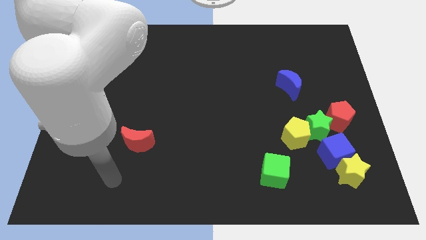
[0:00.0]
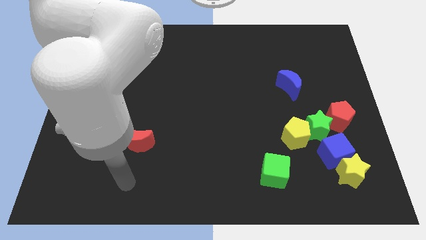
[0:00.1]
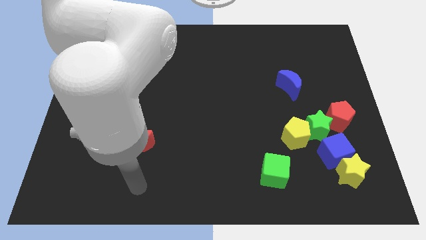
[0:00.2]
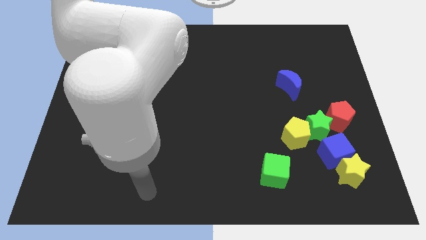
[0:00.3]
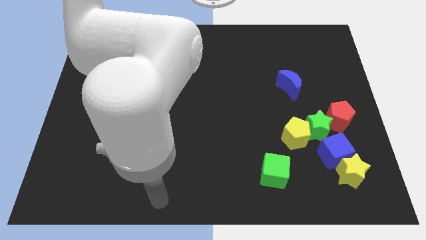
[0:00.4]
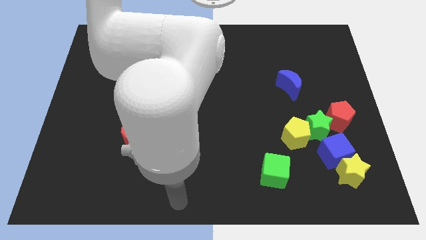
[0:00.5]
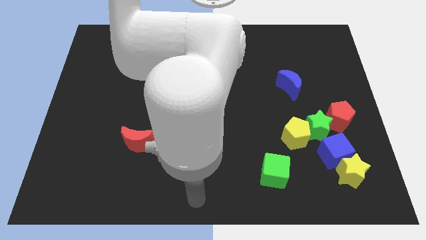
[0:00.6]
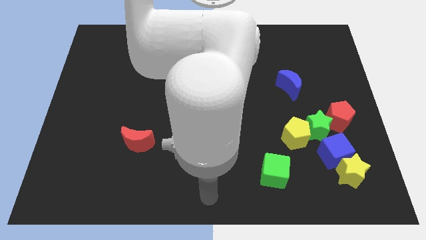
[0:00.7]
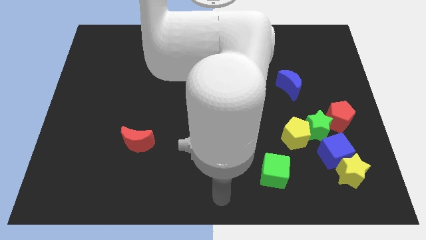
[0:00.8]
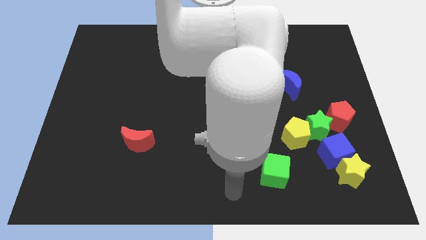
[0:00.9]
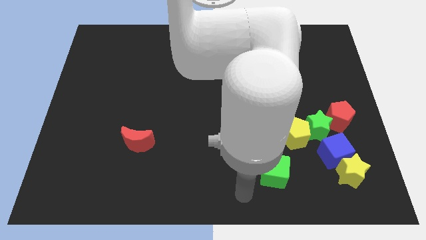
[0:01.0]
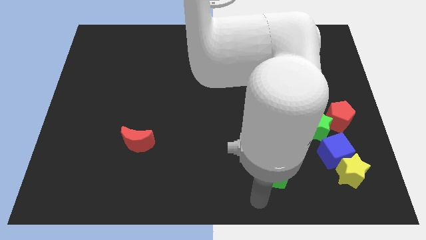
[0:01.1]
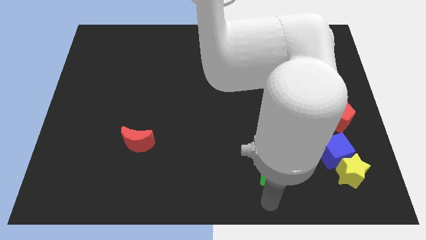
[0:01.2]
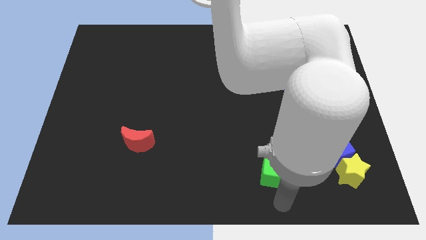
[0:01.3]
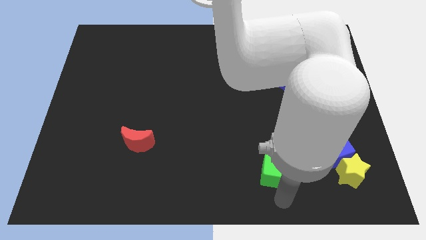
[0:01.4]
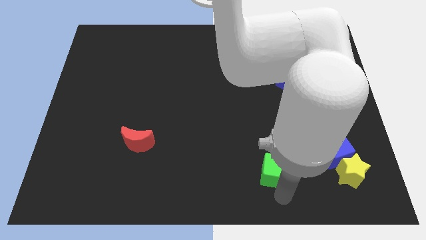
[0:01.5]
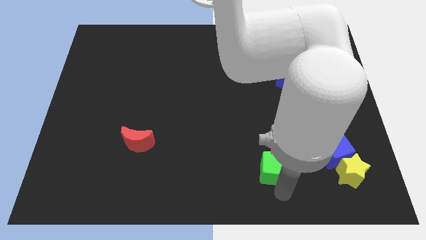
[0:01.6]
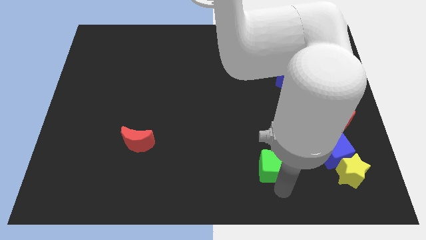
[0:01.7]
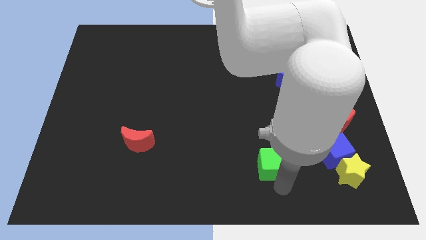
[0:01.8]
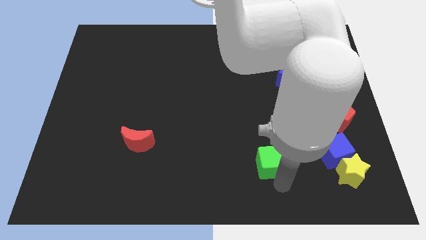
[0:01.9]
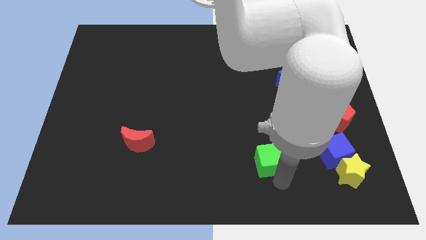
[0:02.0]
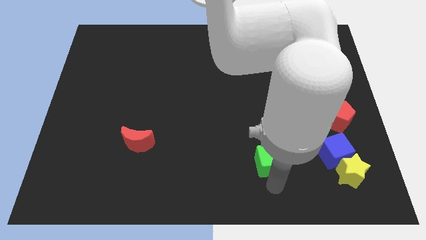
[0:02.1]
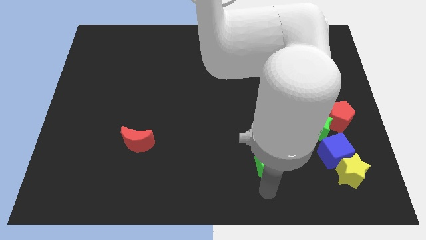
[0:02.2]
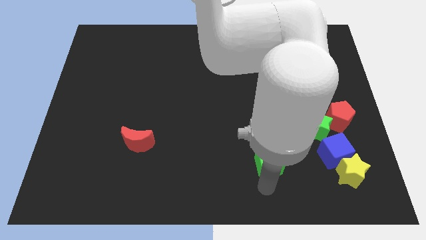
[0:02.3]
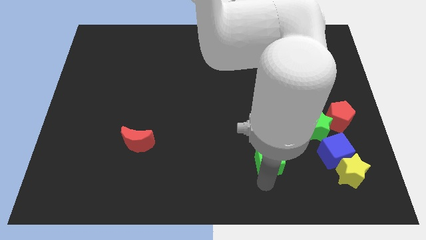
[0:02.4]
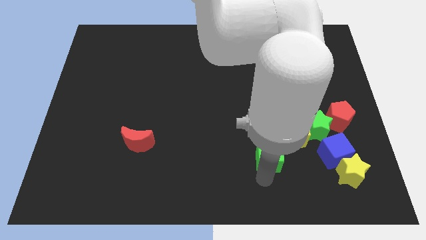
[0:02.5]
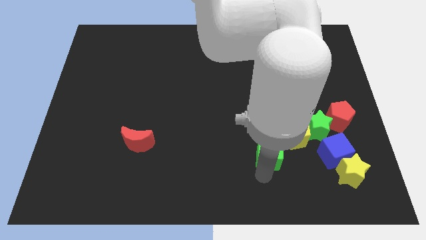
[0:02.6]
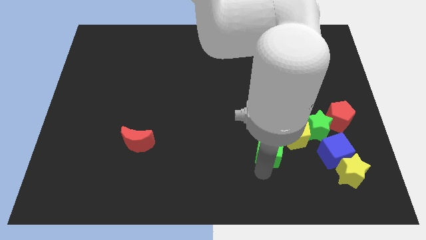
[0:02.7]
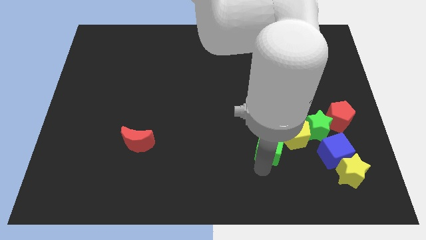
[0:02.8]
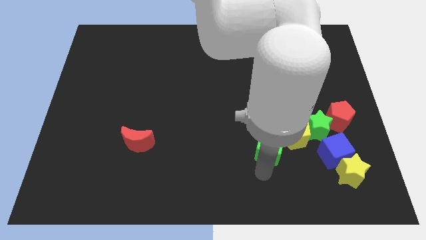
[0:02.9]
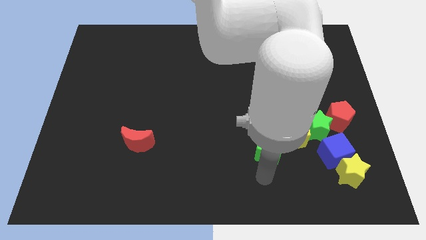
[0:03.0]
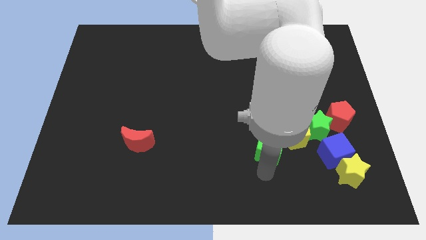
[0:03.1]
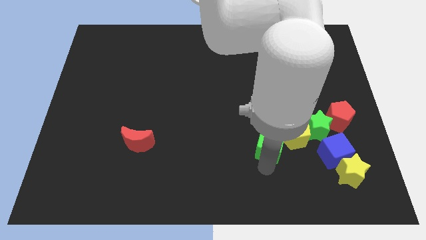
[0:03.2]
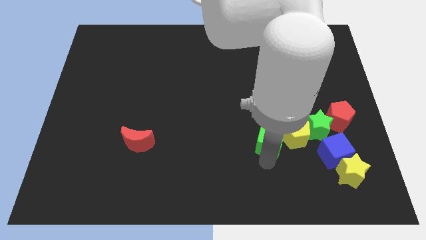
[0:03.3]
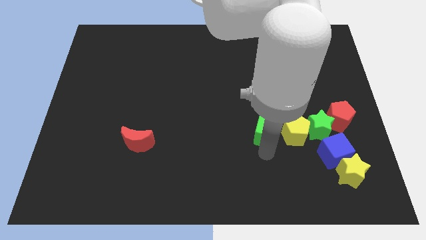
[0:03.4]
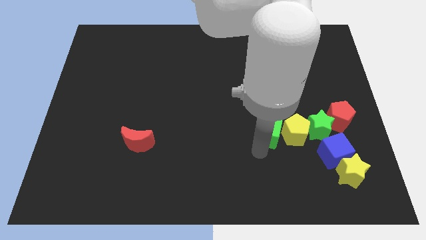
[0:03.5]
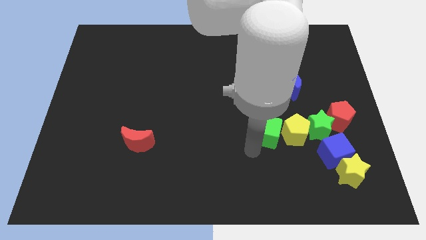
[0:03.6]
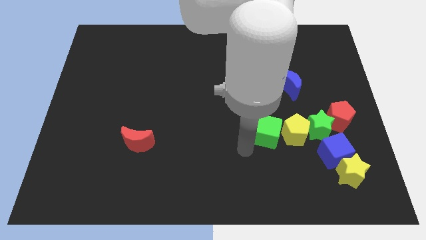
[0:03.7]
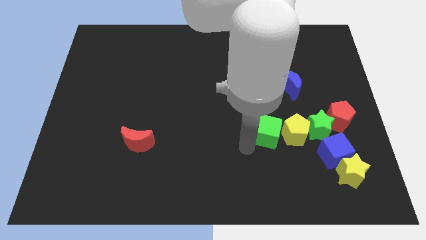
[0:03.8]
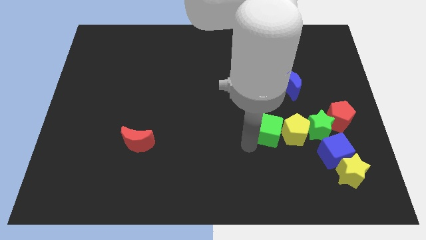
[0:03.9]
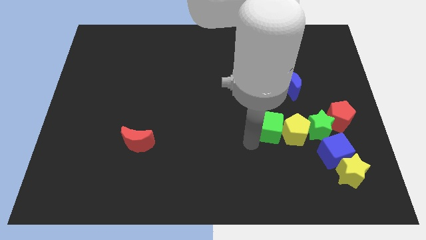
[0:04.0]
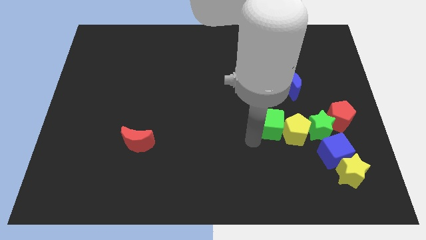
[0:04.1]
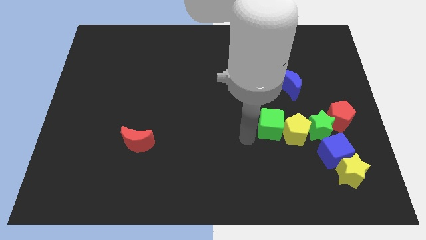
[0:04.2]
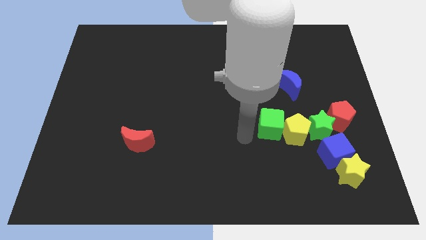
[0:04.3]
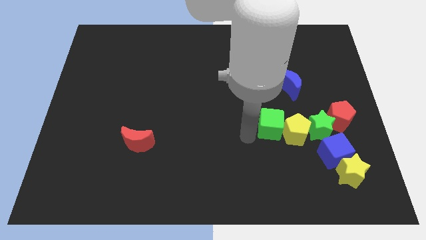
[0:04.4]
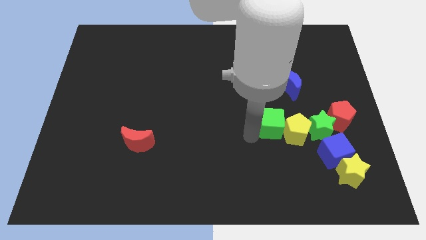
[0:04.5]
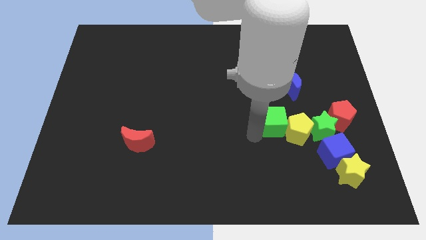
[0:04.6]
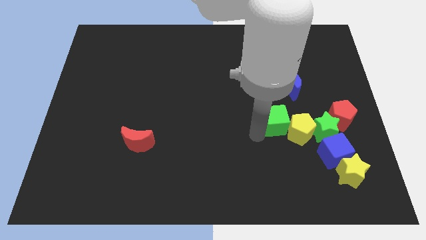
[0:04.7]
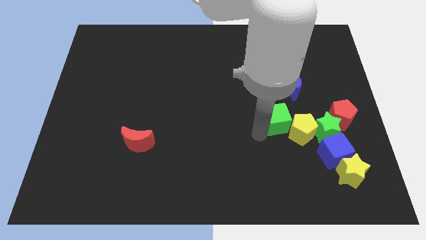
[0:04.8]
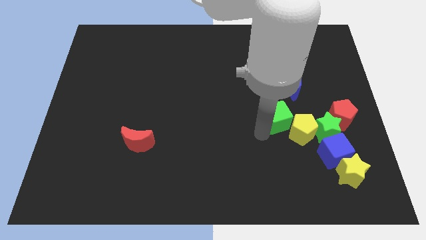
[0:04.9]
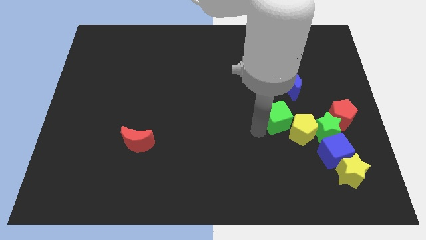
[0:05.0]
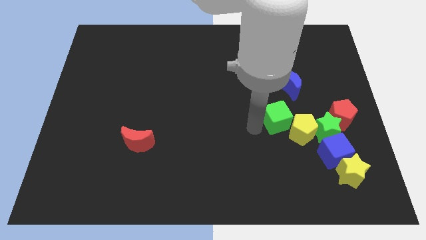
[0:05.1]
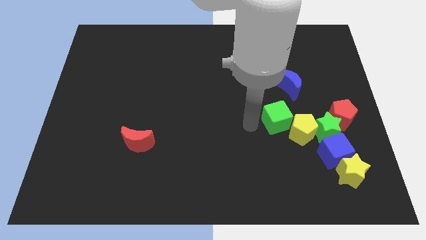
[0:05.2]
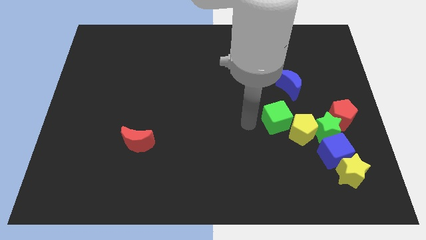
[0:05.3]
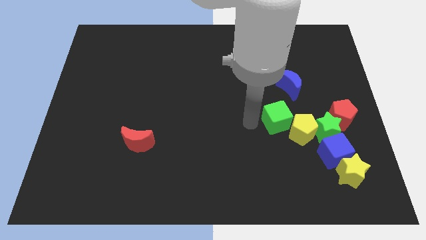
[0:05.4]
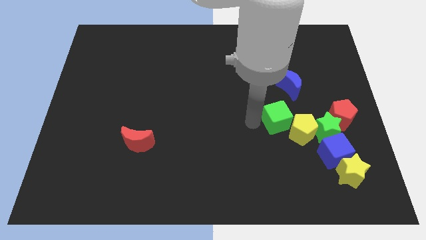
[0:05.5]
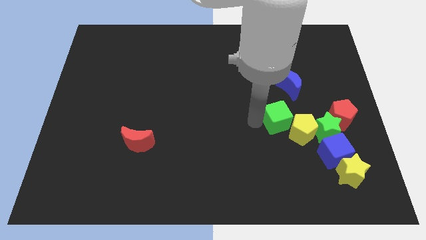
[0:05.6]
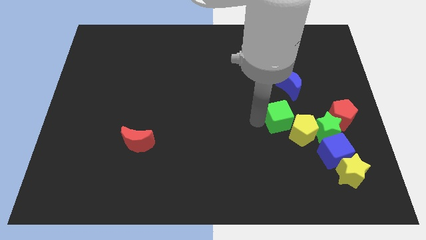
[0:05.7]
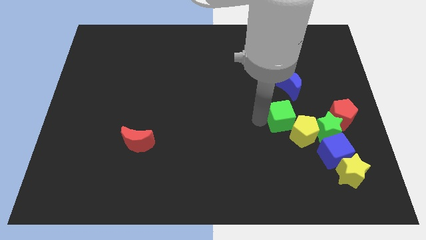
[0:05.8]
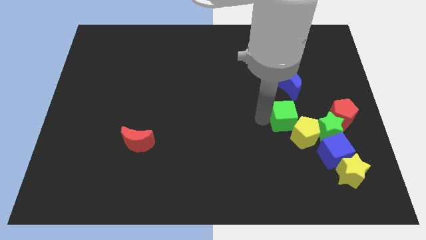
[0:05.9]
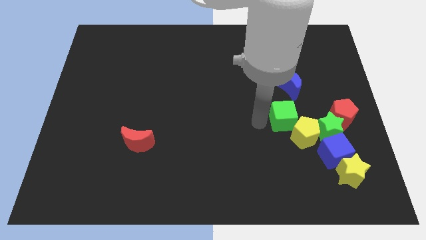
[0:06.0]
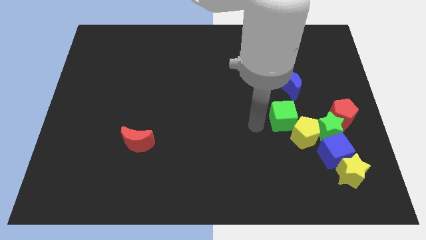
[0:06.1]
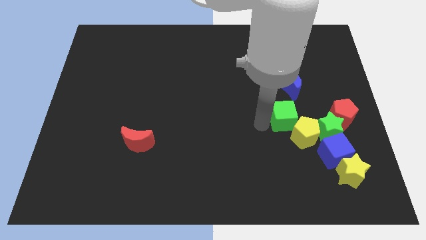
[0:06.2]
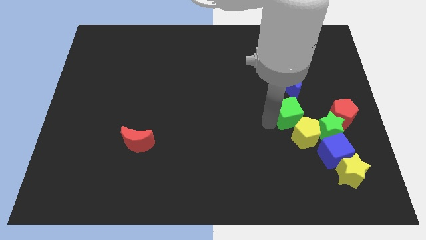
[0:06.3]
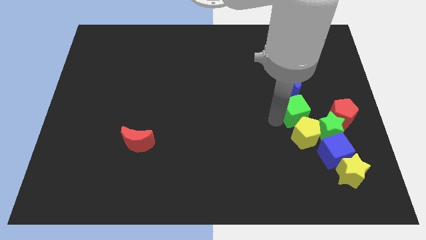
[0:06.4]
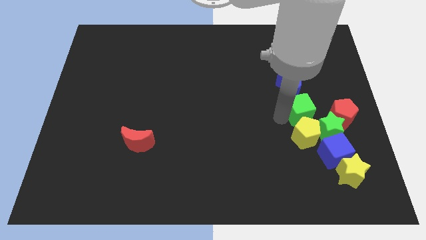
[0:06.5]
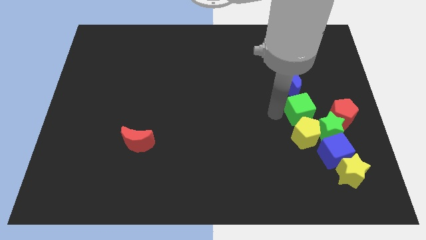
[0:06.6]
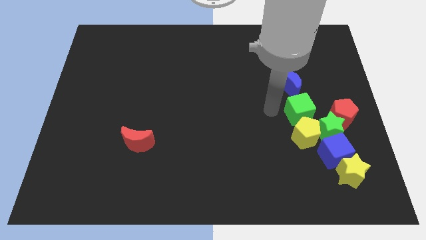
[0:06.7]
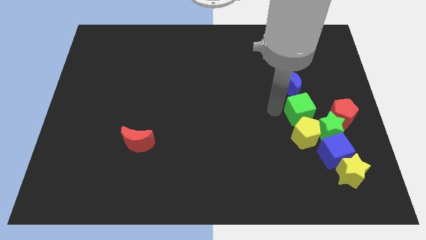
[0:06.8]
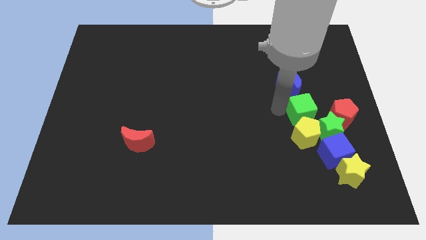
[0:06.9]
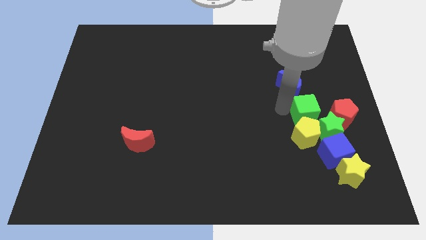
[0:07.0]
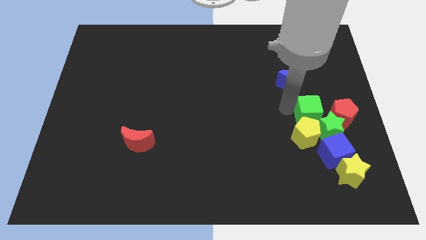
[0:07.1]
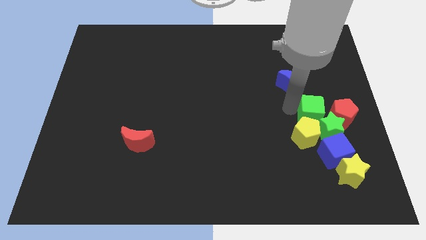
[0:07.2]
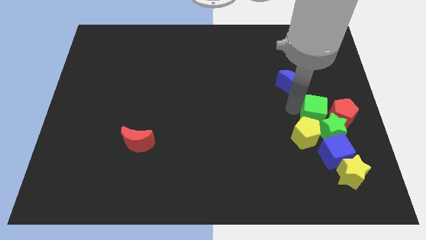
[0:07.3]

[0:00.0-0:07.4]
move the green cube next to the red pentagon
